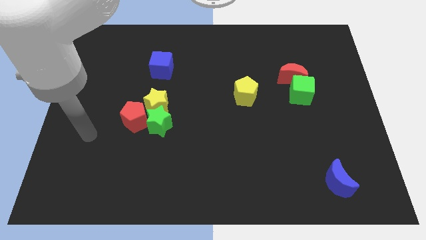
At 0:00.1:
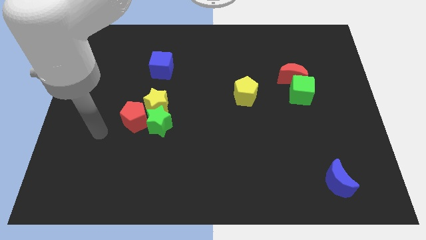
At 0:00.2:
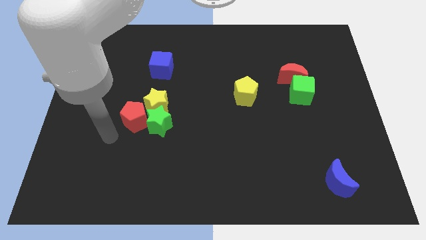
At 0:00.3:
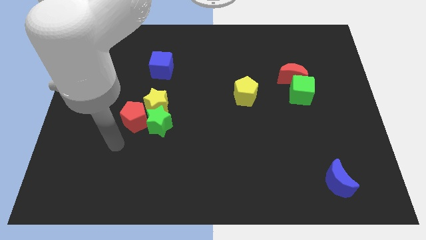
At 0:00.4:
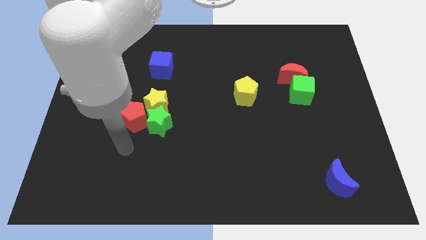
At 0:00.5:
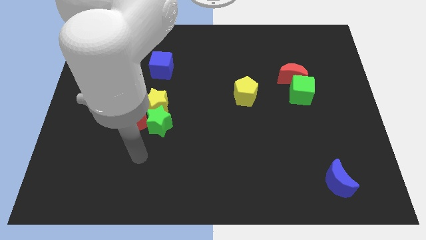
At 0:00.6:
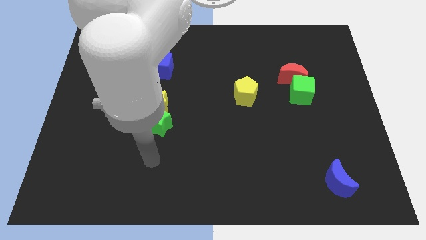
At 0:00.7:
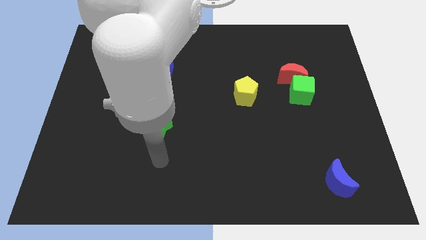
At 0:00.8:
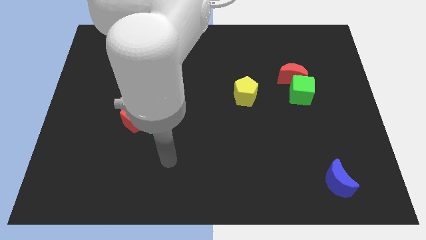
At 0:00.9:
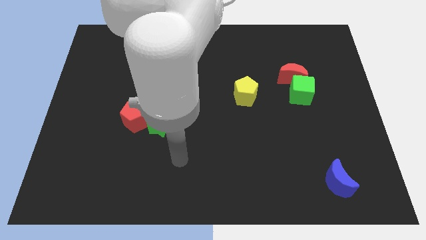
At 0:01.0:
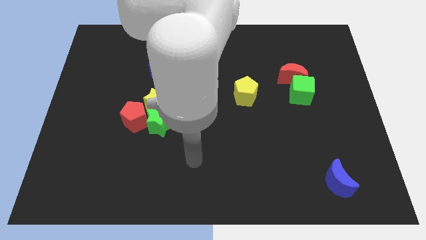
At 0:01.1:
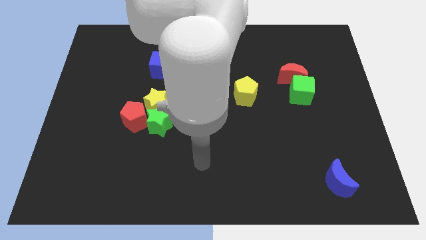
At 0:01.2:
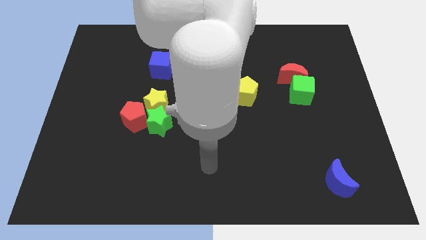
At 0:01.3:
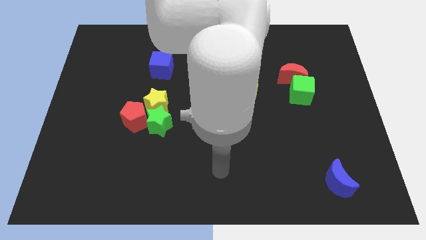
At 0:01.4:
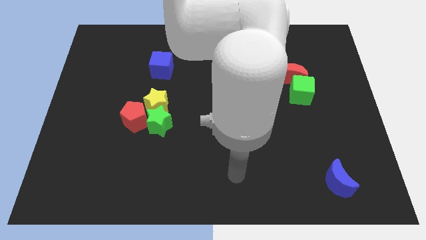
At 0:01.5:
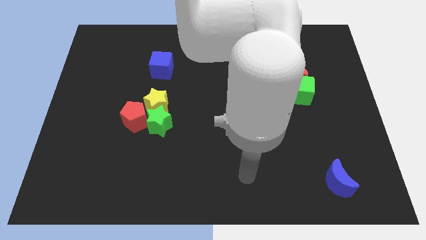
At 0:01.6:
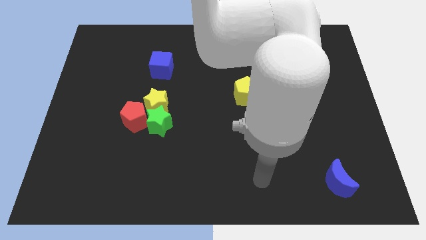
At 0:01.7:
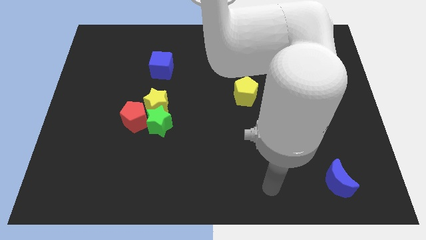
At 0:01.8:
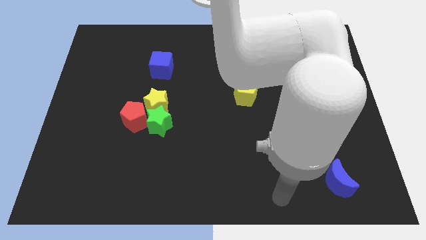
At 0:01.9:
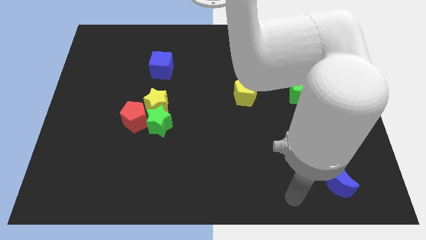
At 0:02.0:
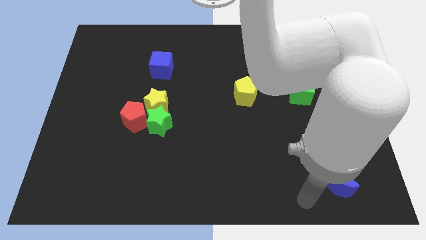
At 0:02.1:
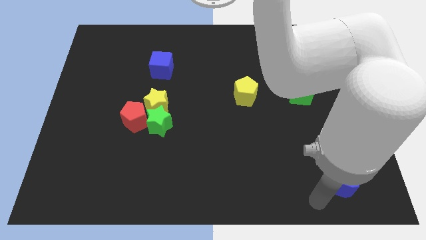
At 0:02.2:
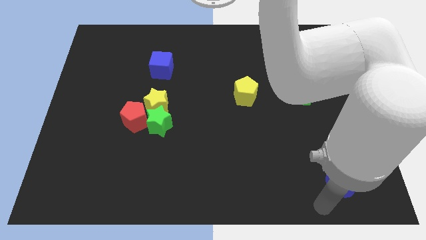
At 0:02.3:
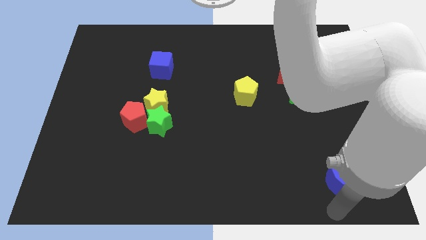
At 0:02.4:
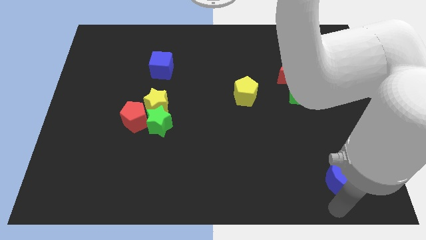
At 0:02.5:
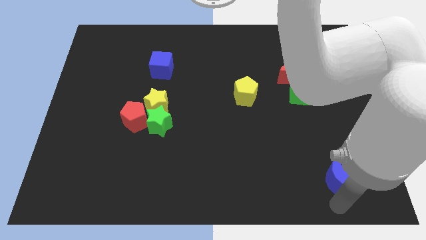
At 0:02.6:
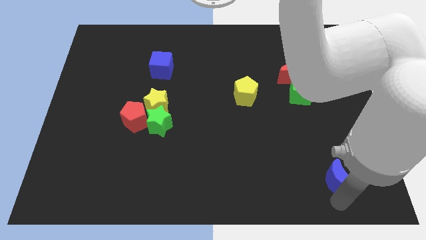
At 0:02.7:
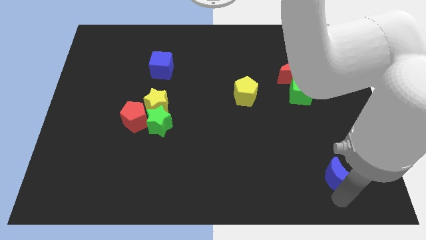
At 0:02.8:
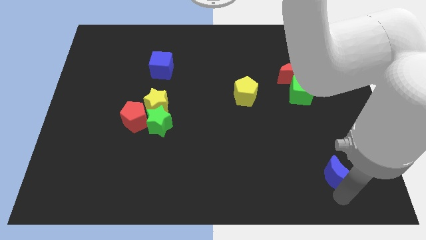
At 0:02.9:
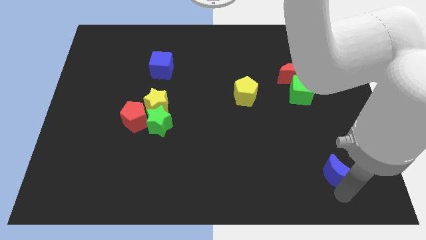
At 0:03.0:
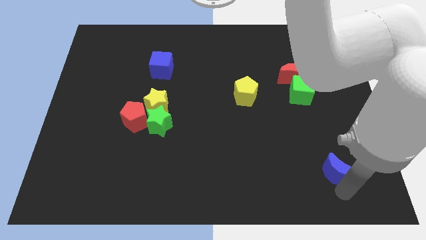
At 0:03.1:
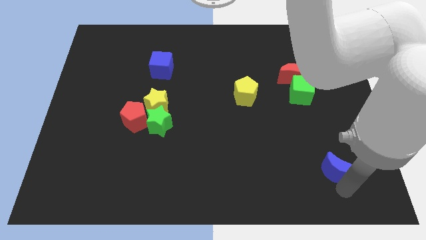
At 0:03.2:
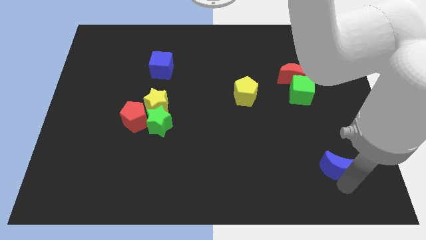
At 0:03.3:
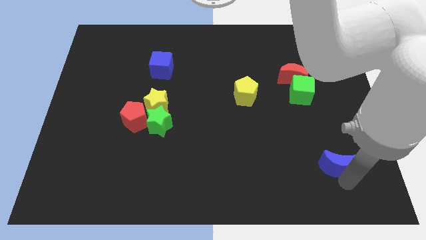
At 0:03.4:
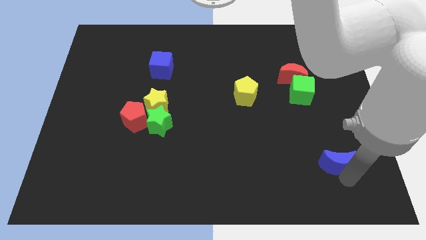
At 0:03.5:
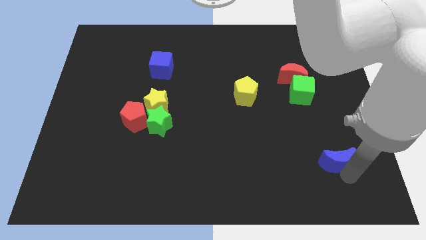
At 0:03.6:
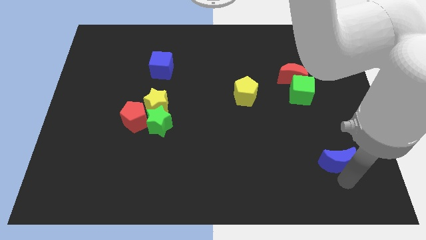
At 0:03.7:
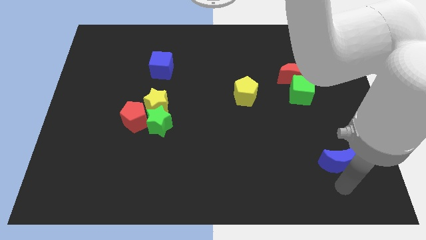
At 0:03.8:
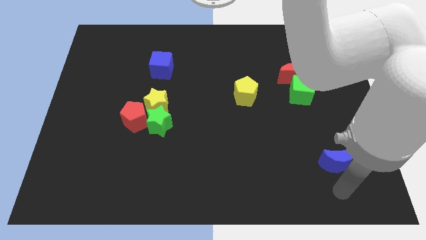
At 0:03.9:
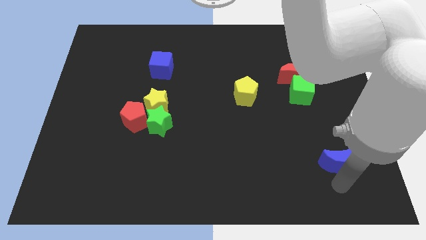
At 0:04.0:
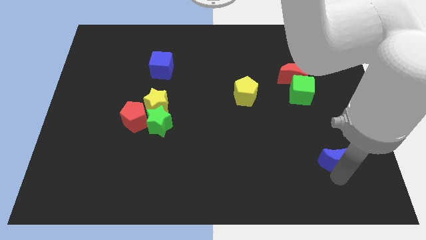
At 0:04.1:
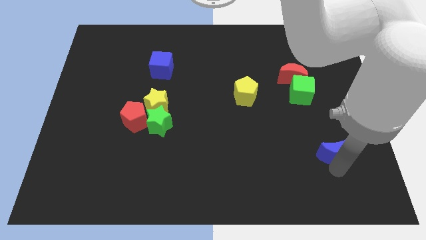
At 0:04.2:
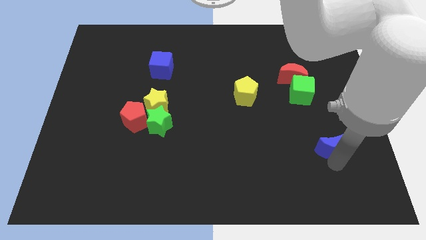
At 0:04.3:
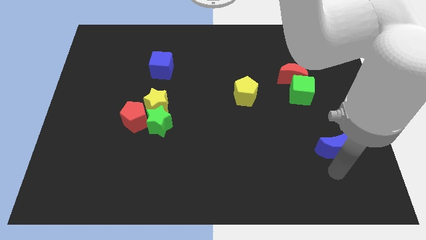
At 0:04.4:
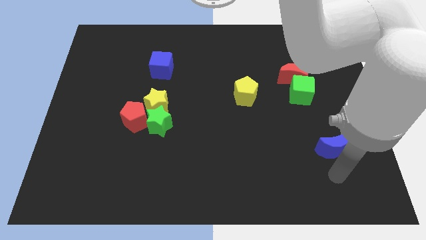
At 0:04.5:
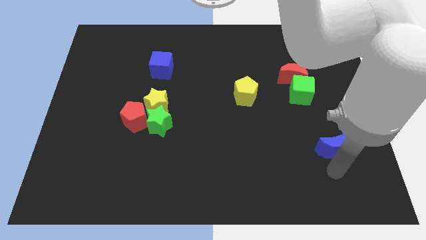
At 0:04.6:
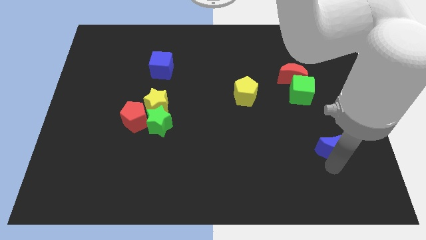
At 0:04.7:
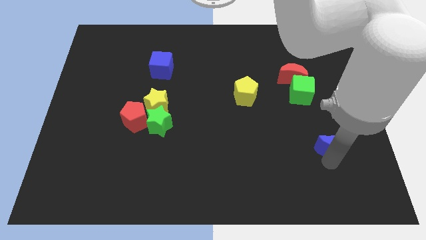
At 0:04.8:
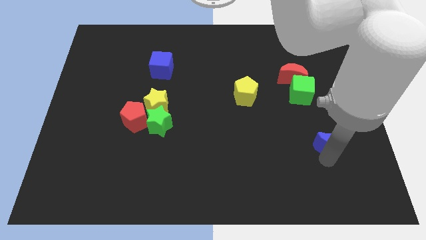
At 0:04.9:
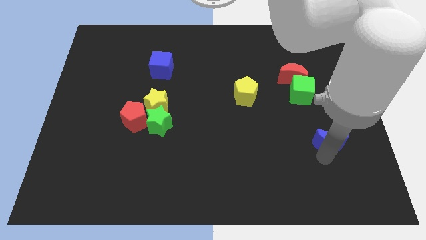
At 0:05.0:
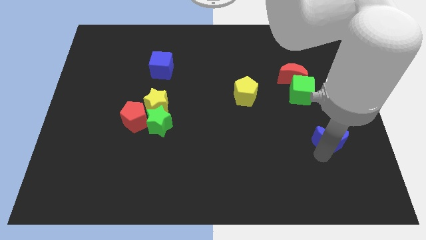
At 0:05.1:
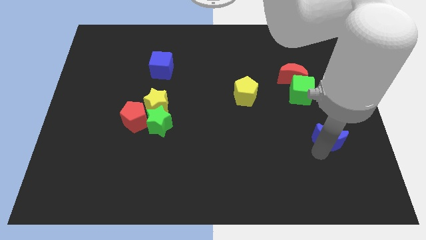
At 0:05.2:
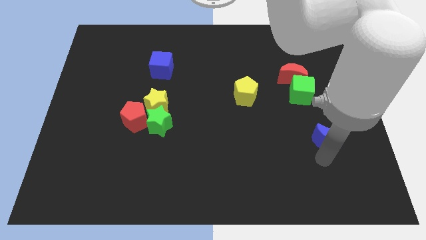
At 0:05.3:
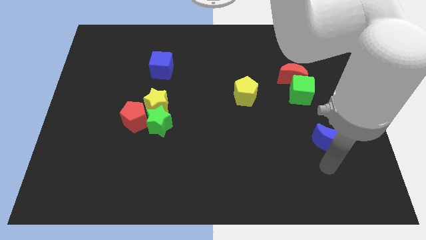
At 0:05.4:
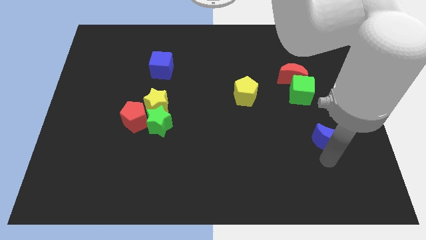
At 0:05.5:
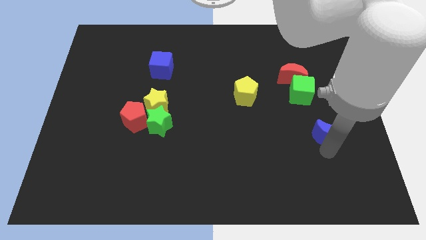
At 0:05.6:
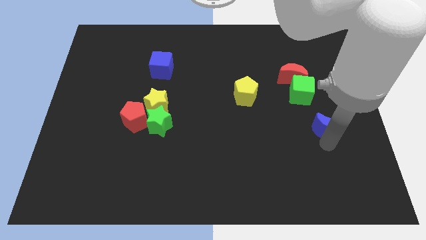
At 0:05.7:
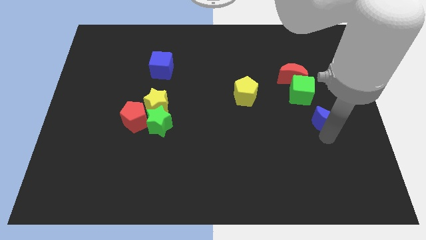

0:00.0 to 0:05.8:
slide the blue moon to the bottom right side of the green cube
